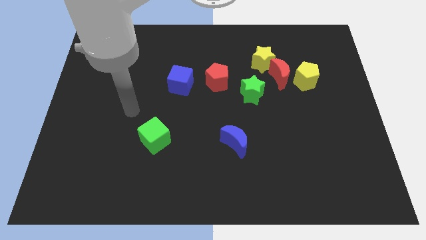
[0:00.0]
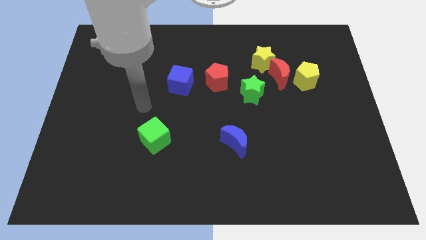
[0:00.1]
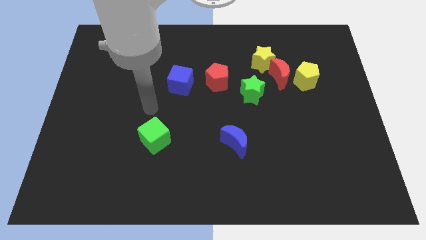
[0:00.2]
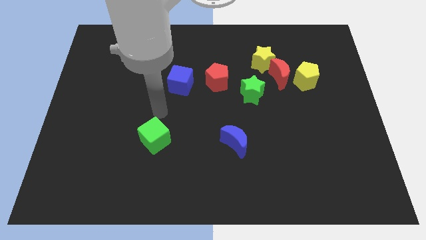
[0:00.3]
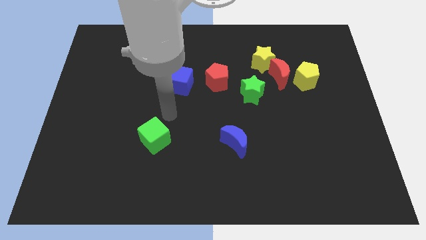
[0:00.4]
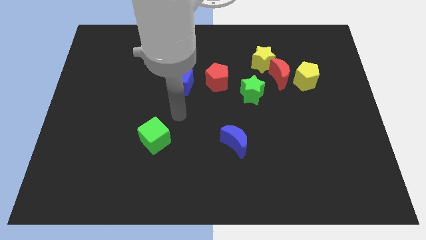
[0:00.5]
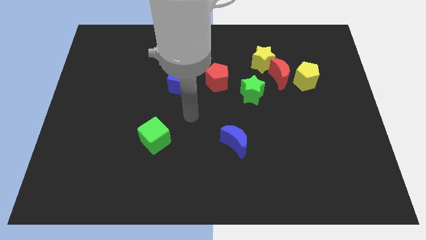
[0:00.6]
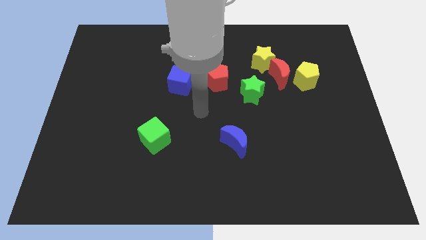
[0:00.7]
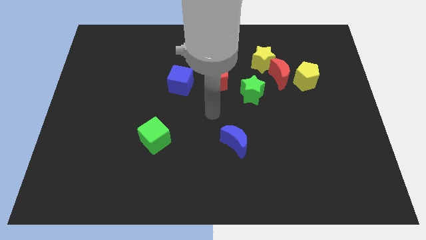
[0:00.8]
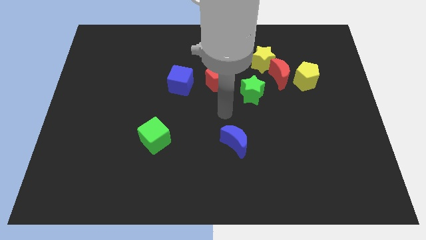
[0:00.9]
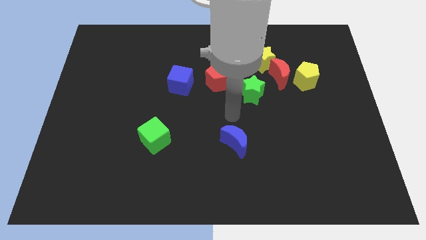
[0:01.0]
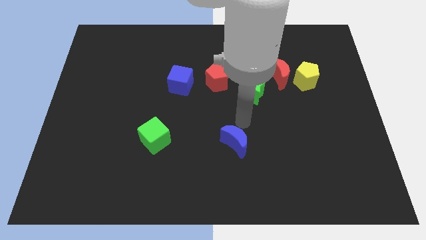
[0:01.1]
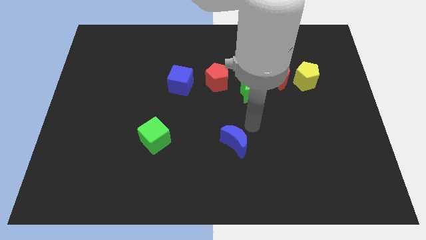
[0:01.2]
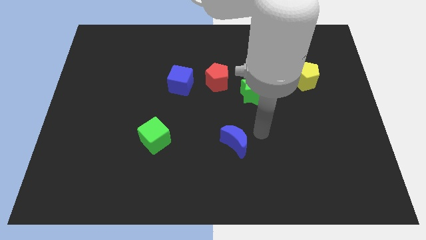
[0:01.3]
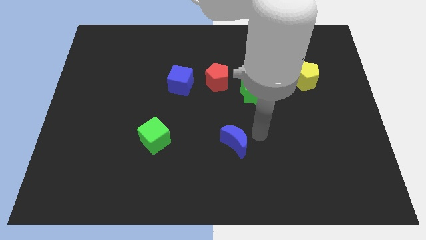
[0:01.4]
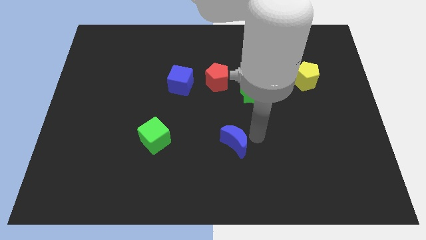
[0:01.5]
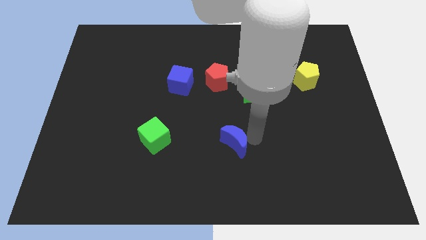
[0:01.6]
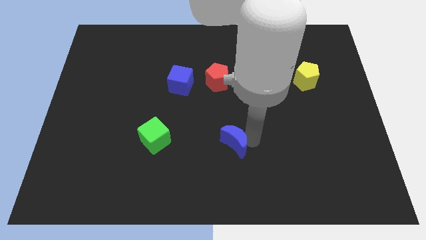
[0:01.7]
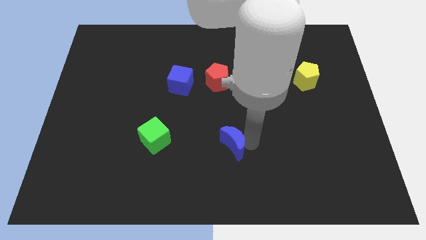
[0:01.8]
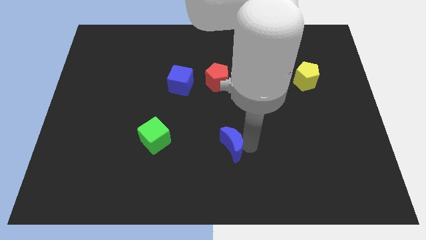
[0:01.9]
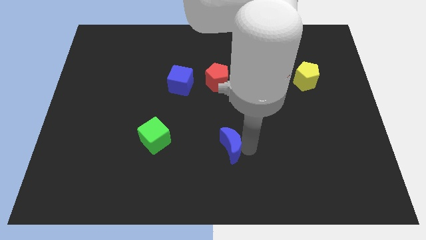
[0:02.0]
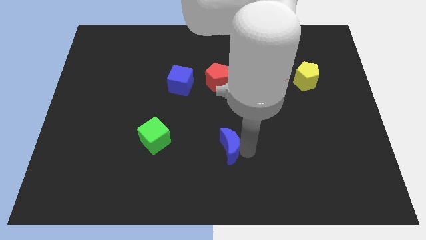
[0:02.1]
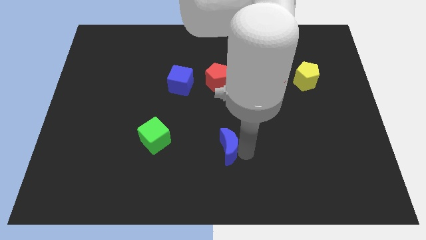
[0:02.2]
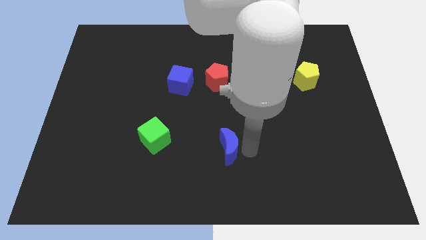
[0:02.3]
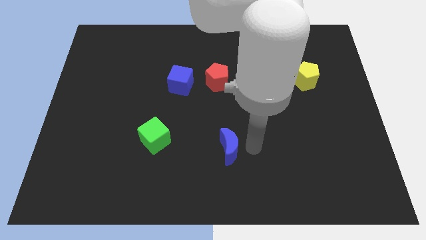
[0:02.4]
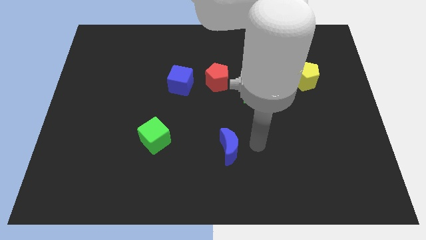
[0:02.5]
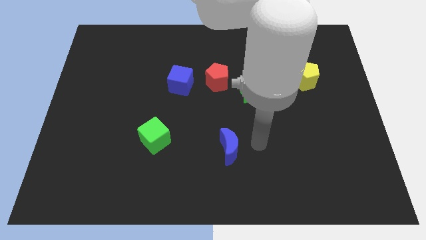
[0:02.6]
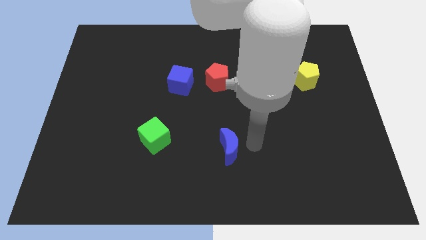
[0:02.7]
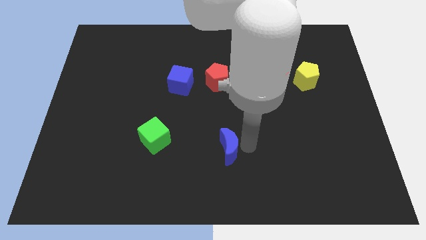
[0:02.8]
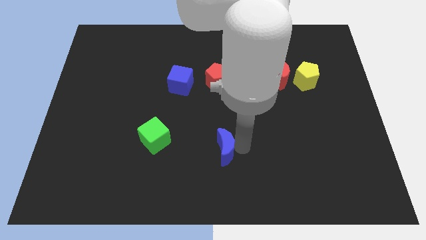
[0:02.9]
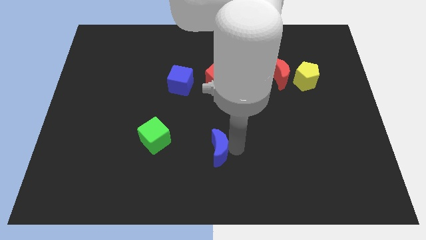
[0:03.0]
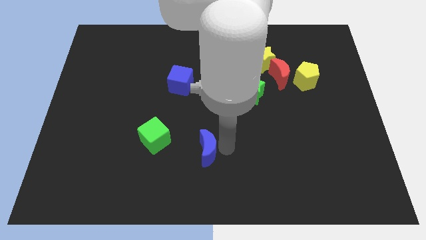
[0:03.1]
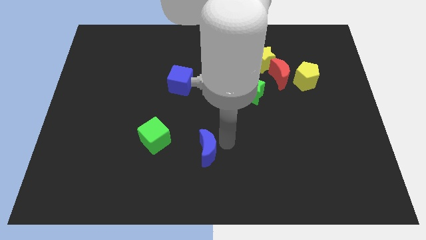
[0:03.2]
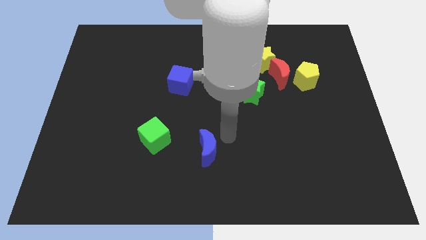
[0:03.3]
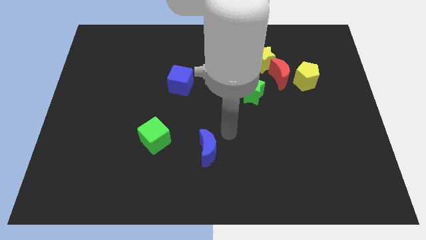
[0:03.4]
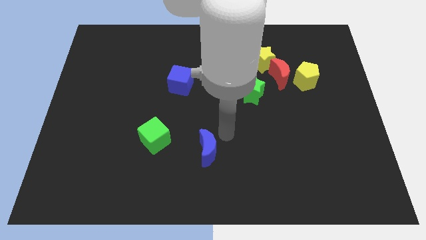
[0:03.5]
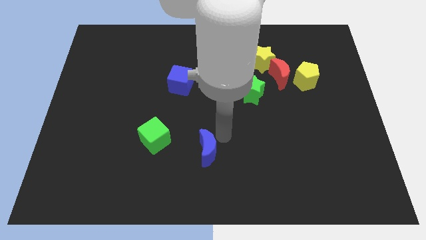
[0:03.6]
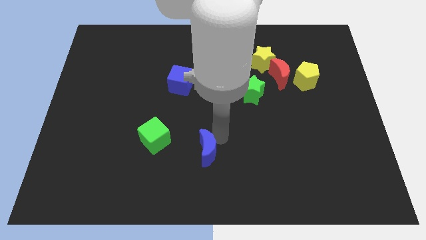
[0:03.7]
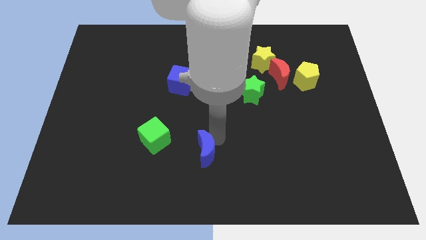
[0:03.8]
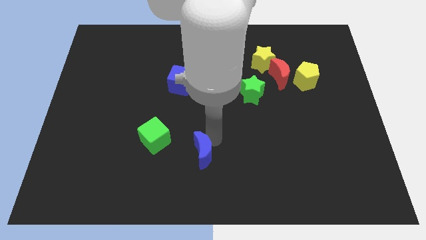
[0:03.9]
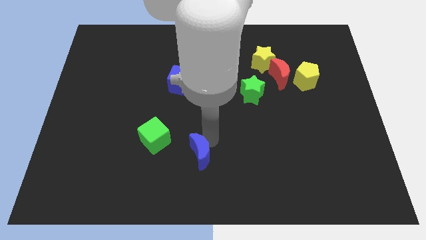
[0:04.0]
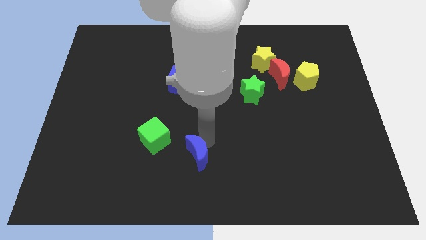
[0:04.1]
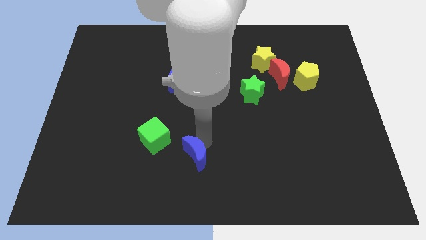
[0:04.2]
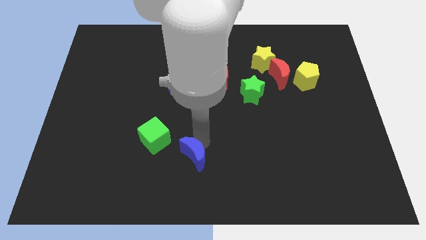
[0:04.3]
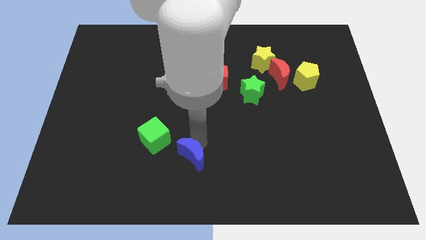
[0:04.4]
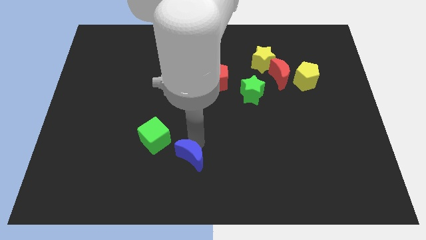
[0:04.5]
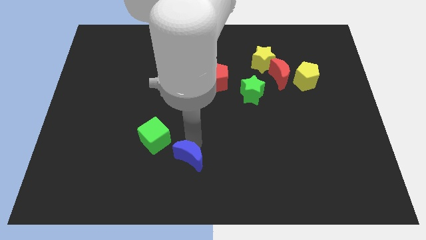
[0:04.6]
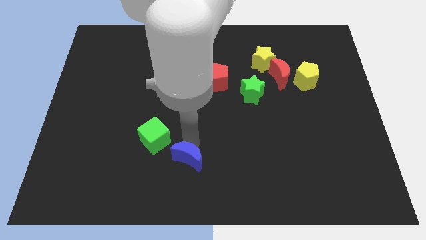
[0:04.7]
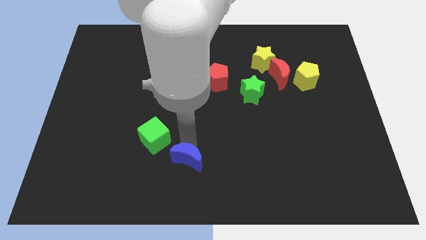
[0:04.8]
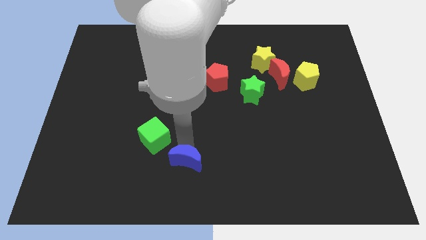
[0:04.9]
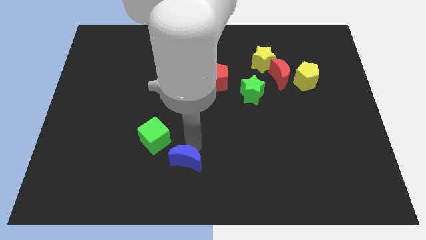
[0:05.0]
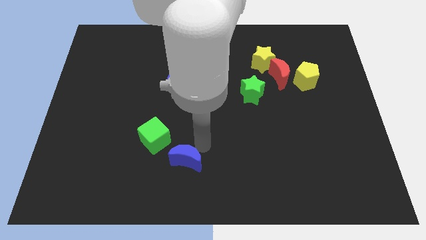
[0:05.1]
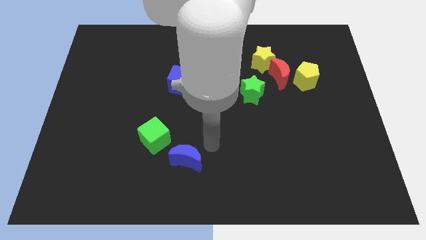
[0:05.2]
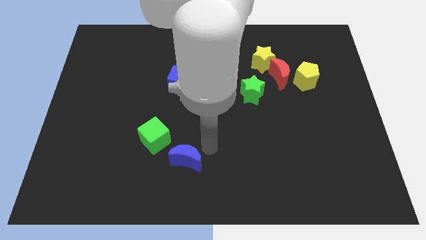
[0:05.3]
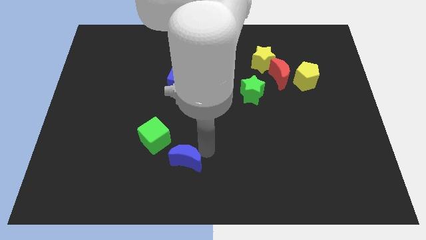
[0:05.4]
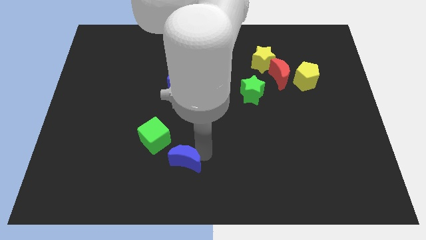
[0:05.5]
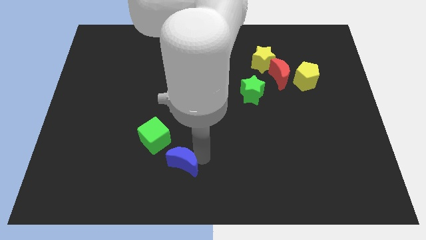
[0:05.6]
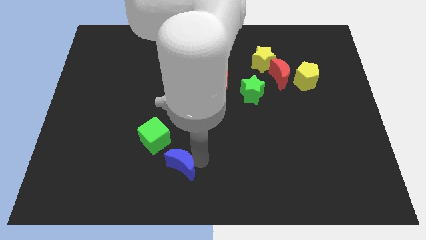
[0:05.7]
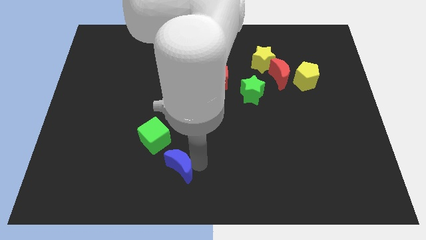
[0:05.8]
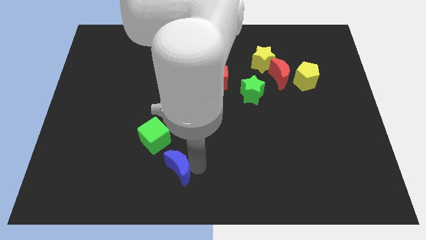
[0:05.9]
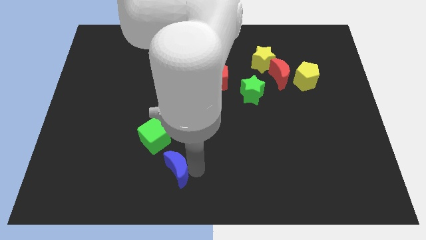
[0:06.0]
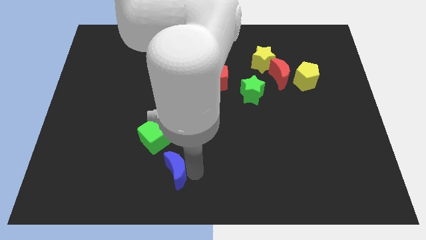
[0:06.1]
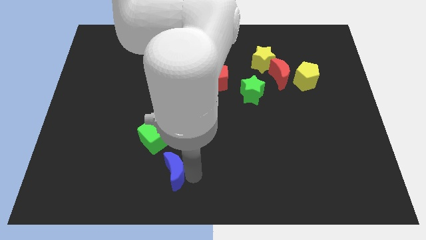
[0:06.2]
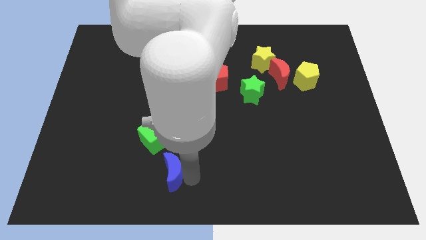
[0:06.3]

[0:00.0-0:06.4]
move the blue moon to the bottom of the green cube

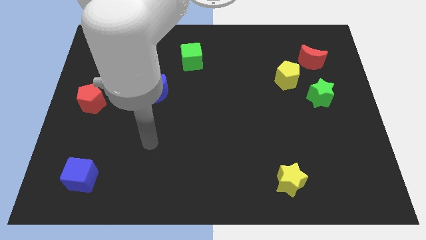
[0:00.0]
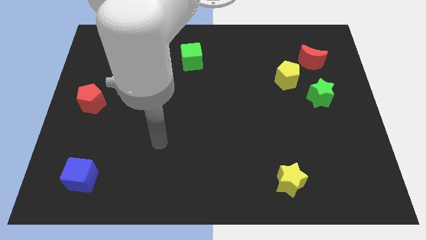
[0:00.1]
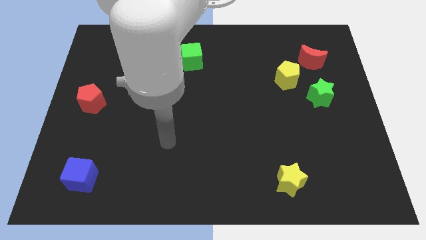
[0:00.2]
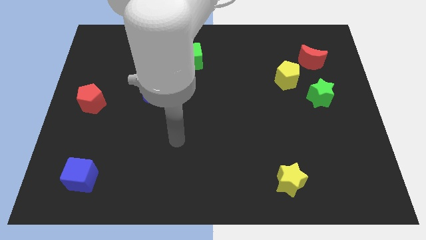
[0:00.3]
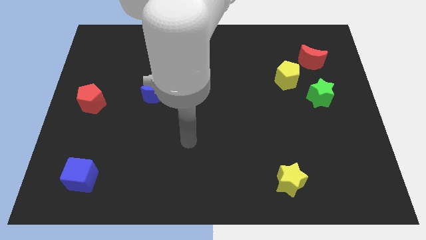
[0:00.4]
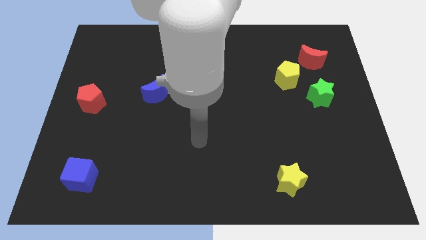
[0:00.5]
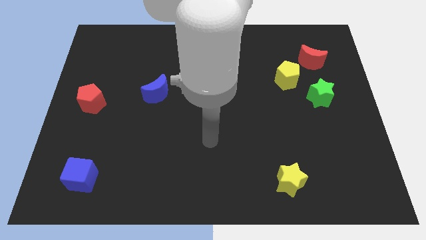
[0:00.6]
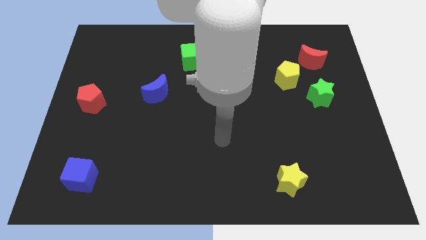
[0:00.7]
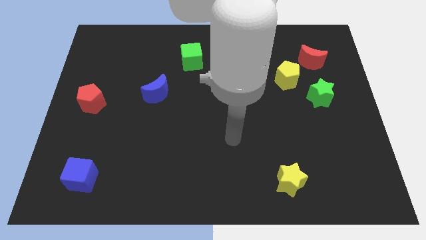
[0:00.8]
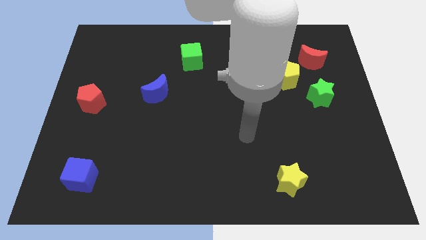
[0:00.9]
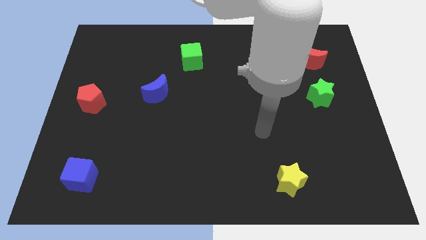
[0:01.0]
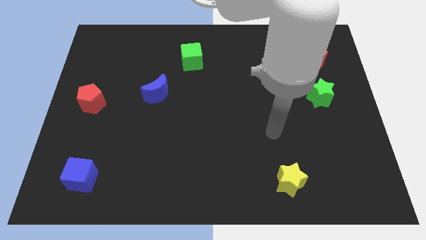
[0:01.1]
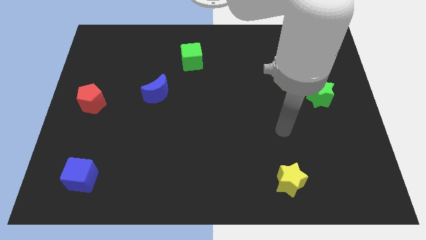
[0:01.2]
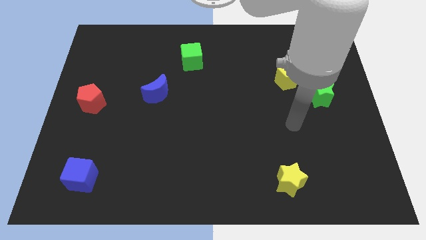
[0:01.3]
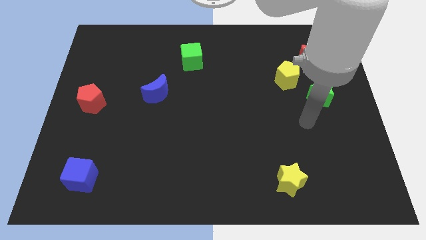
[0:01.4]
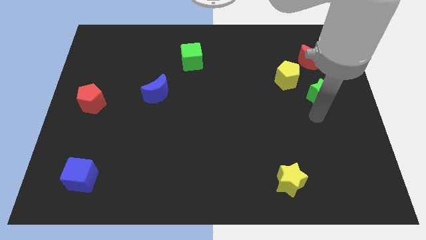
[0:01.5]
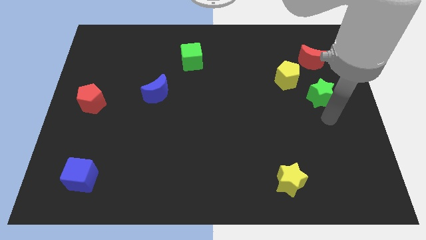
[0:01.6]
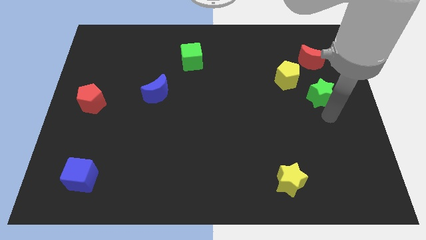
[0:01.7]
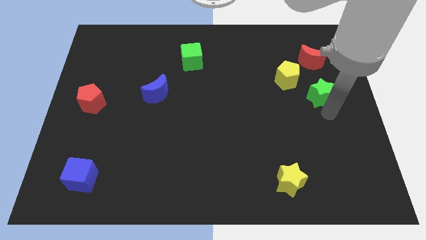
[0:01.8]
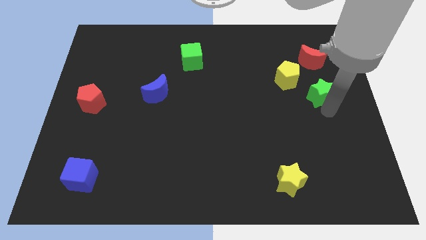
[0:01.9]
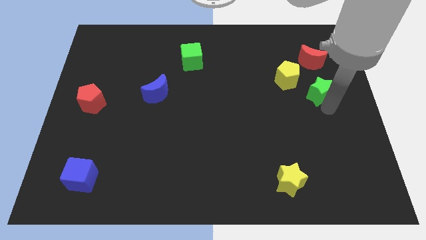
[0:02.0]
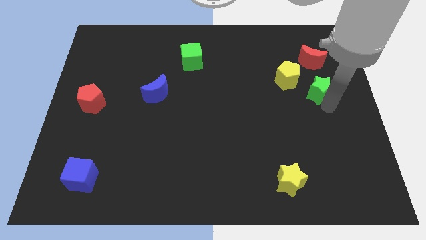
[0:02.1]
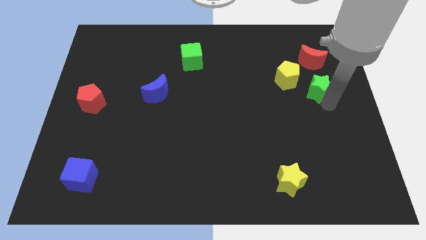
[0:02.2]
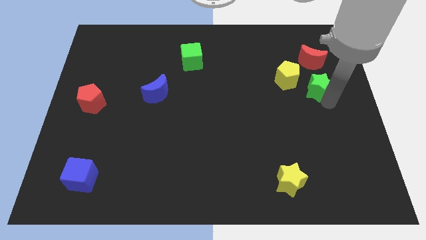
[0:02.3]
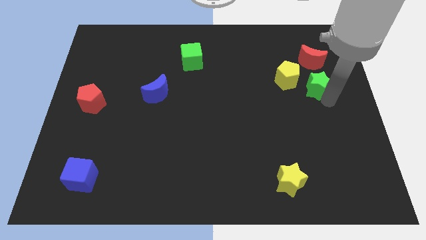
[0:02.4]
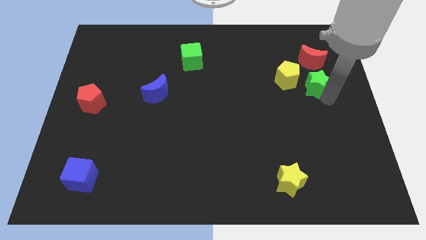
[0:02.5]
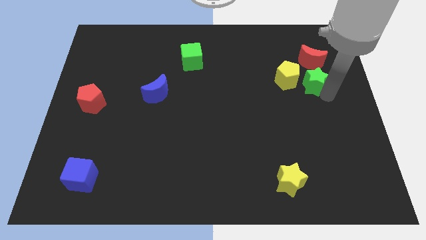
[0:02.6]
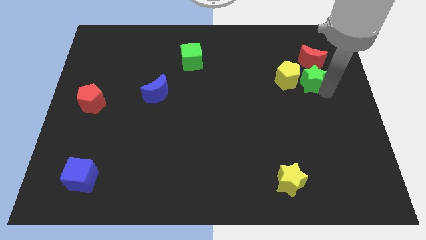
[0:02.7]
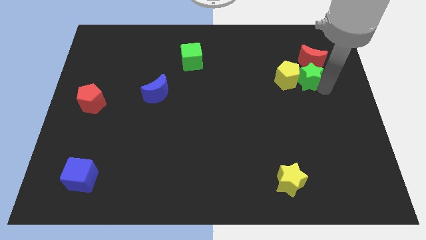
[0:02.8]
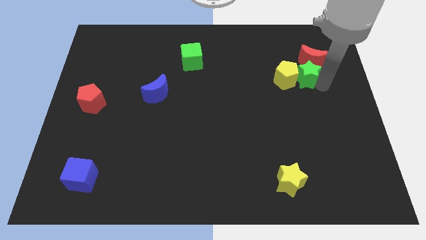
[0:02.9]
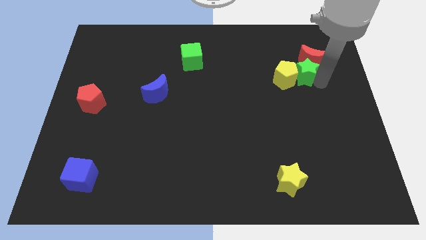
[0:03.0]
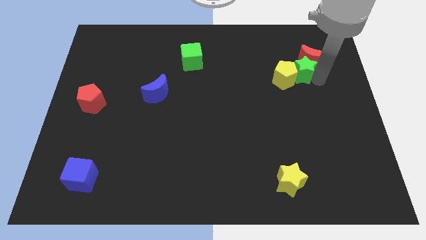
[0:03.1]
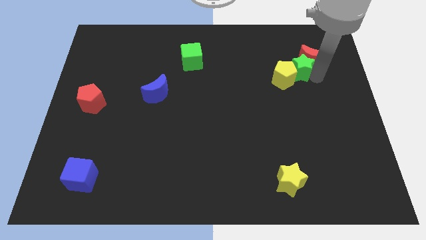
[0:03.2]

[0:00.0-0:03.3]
put the green star left of the red moon
